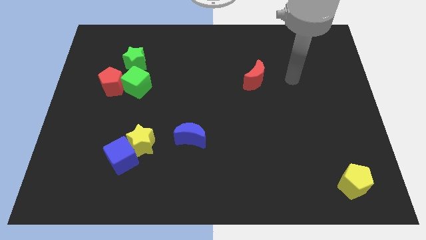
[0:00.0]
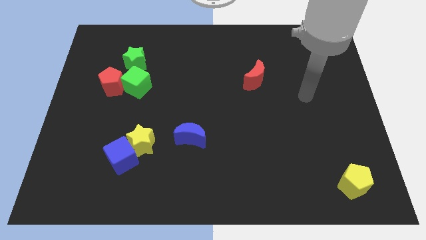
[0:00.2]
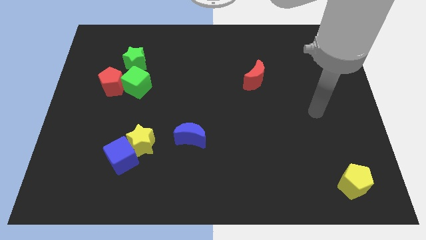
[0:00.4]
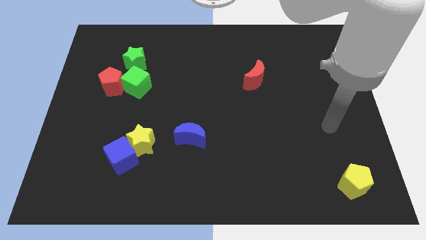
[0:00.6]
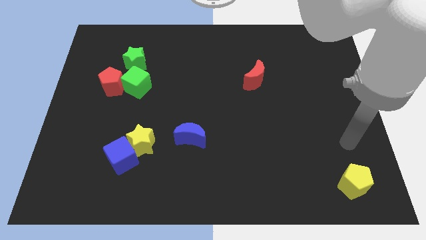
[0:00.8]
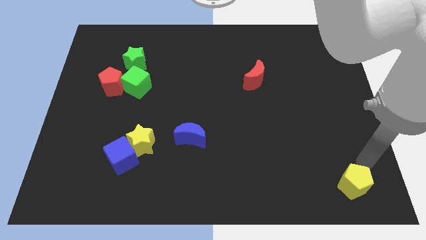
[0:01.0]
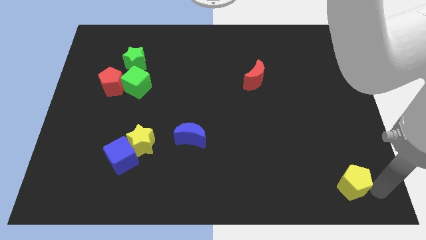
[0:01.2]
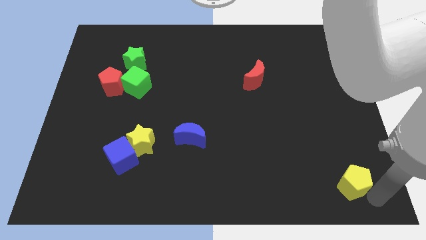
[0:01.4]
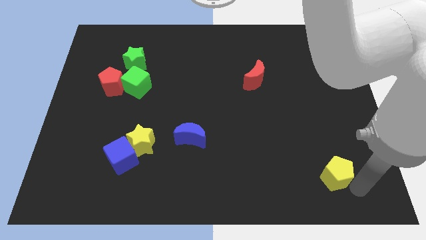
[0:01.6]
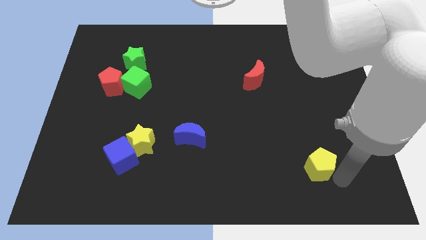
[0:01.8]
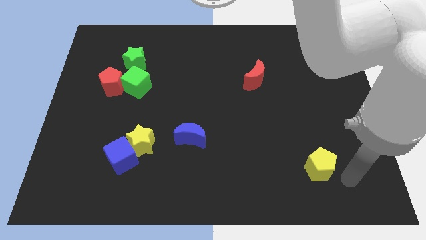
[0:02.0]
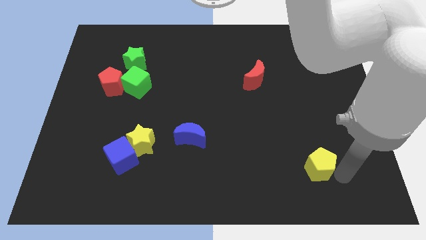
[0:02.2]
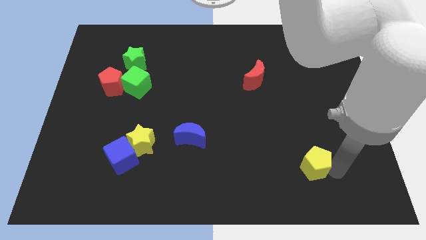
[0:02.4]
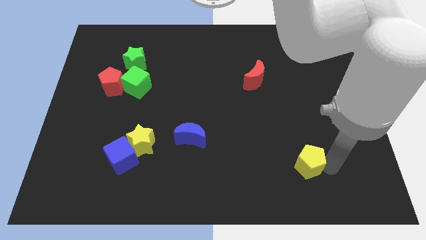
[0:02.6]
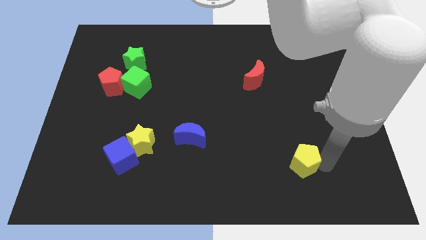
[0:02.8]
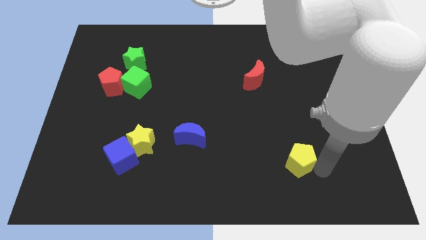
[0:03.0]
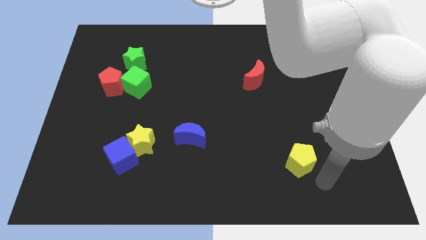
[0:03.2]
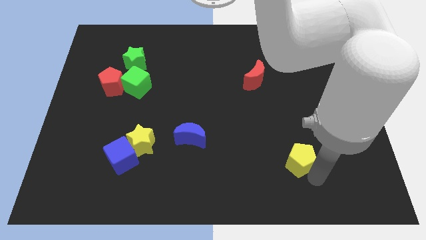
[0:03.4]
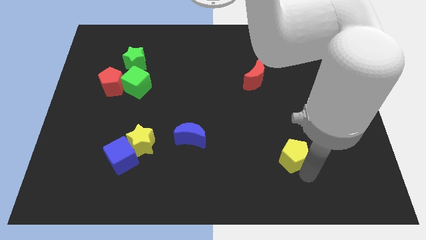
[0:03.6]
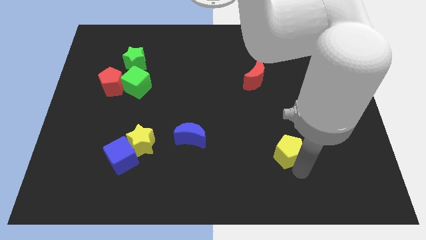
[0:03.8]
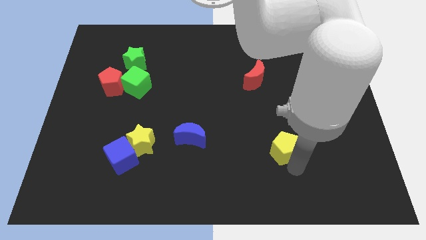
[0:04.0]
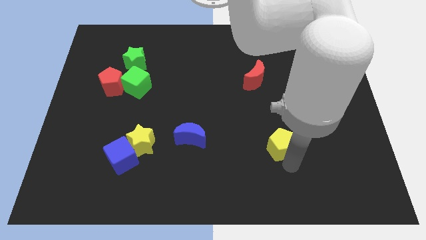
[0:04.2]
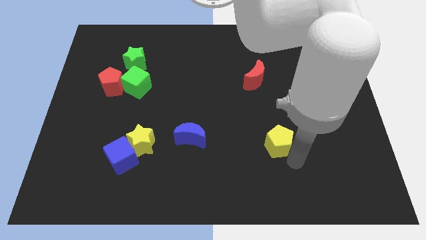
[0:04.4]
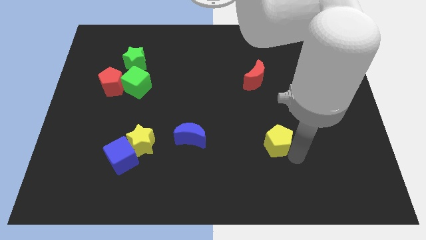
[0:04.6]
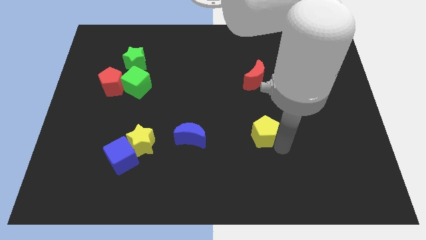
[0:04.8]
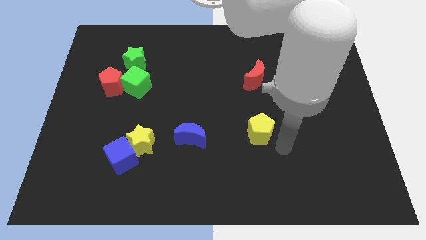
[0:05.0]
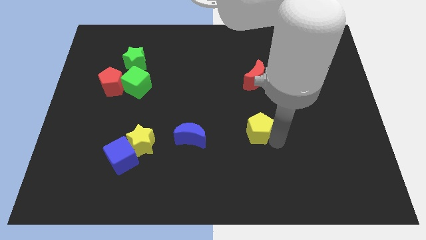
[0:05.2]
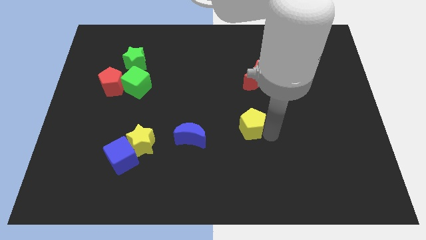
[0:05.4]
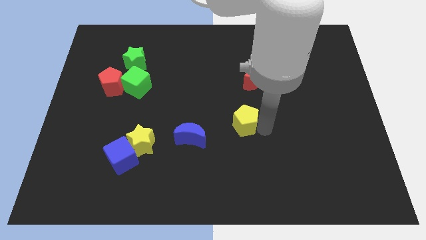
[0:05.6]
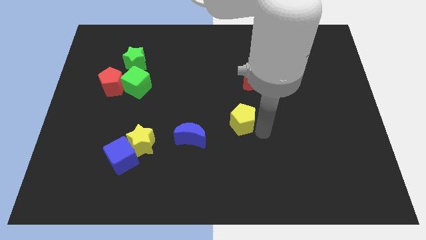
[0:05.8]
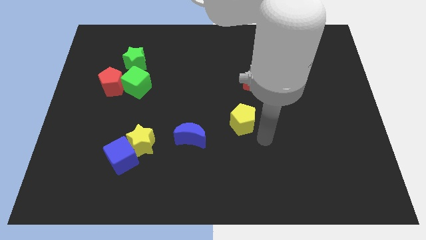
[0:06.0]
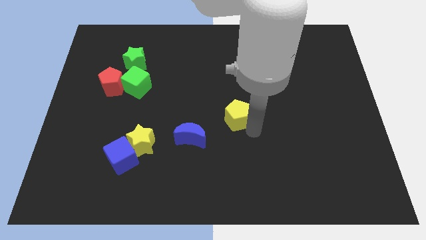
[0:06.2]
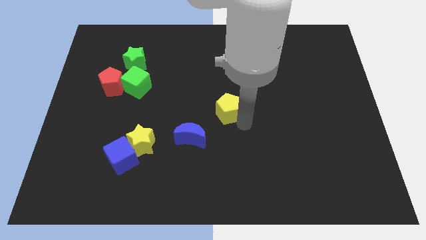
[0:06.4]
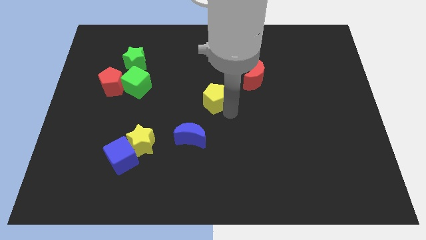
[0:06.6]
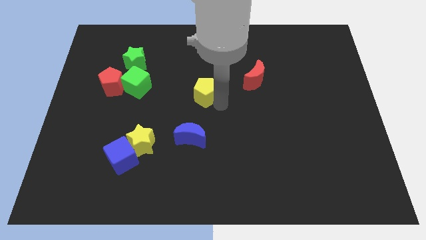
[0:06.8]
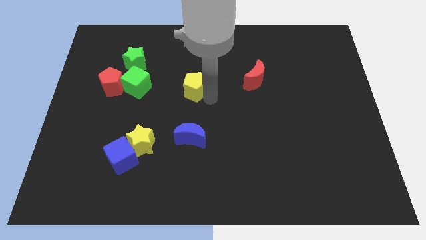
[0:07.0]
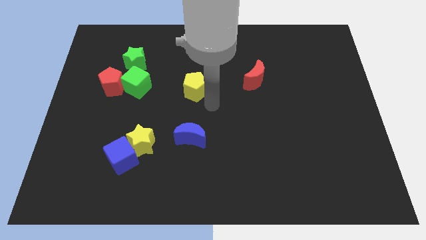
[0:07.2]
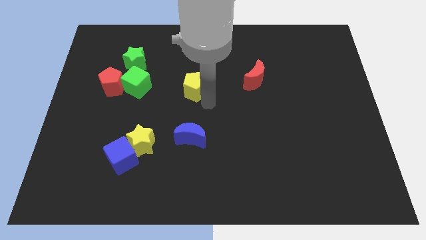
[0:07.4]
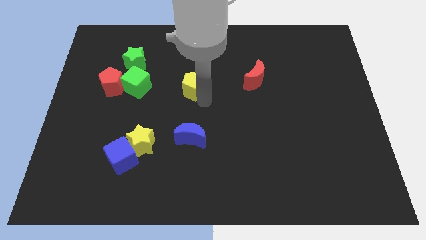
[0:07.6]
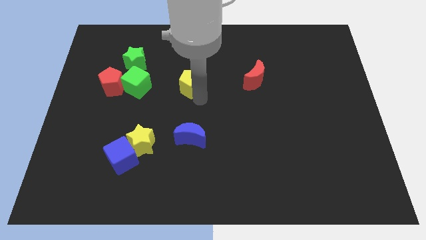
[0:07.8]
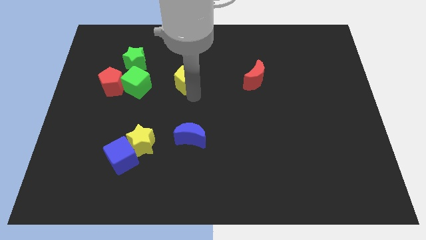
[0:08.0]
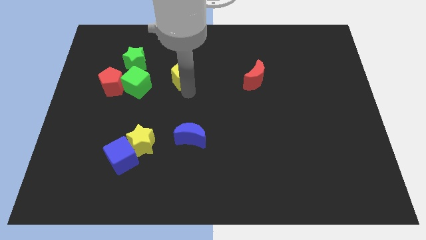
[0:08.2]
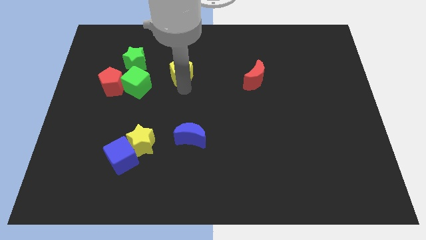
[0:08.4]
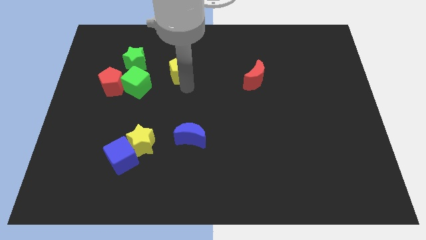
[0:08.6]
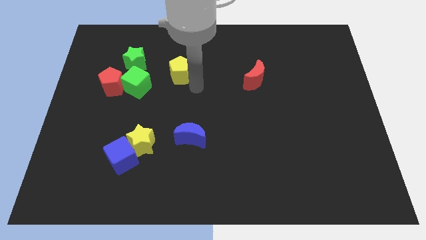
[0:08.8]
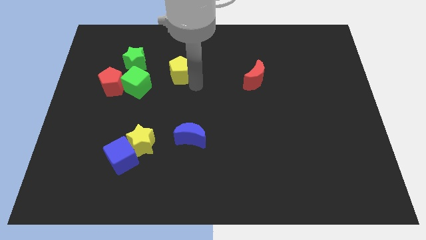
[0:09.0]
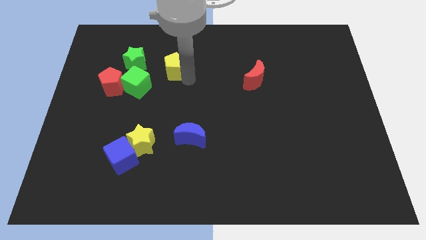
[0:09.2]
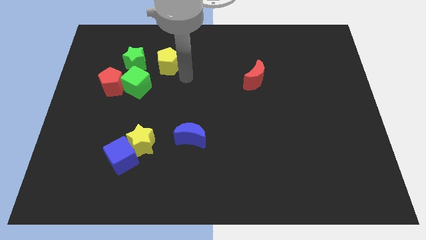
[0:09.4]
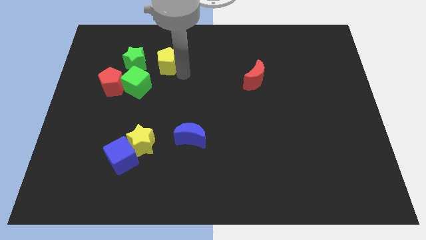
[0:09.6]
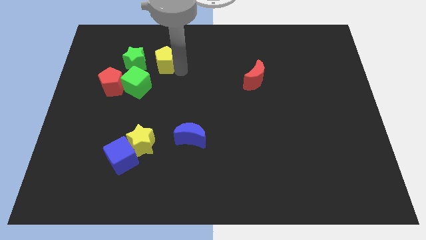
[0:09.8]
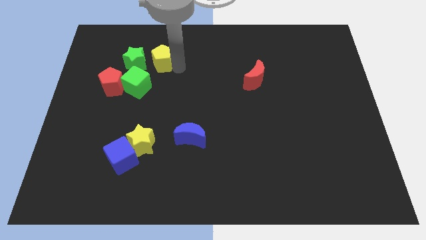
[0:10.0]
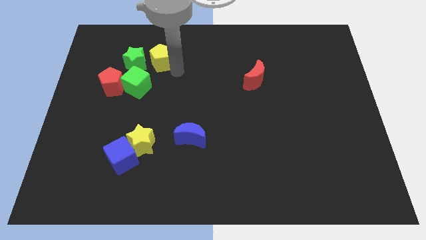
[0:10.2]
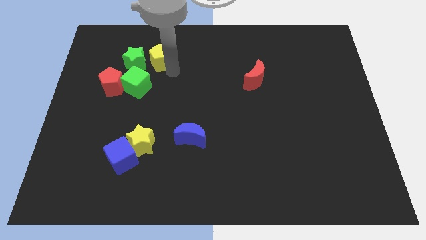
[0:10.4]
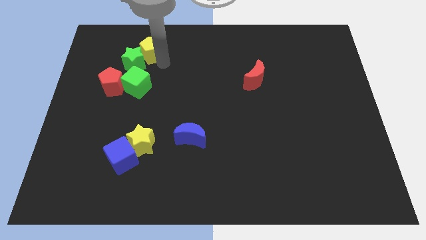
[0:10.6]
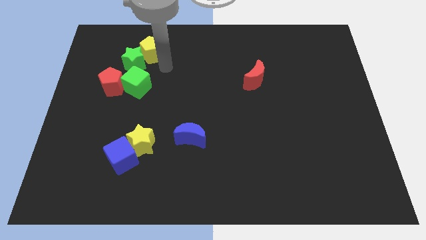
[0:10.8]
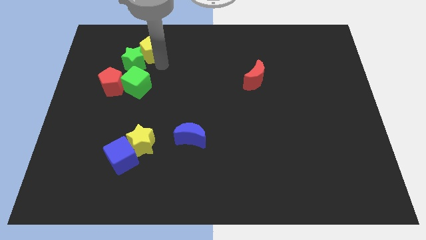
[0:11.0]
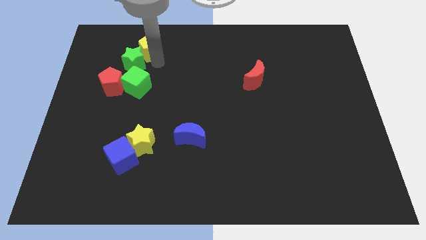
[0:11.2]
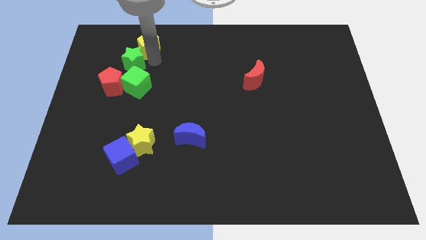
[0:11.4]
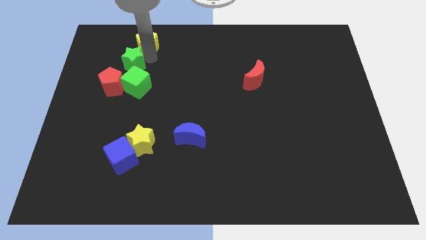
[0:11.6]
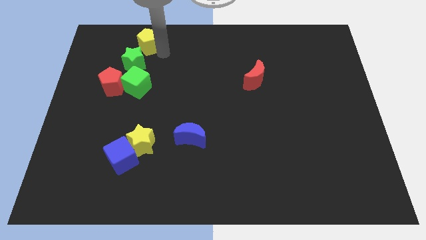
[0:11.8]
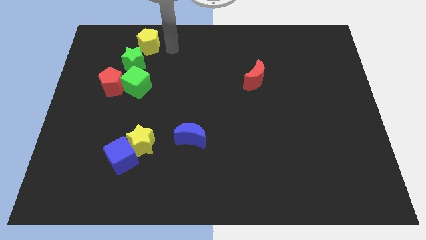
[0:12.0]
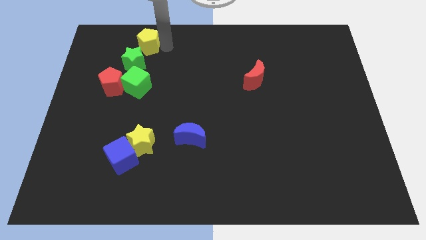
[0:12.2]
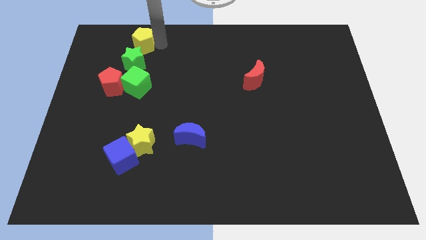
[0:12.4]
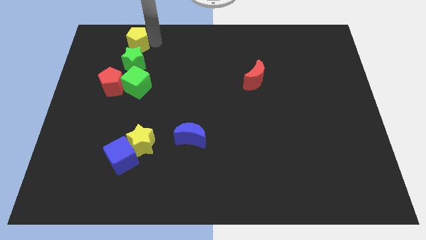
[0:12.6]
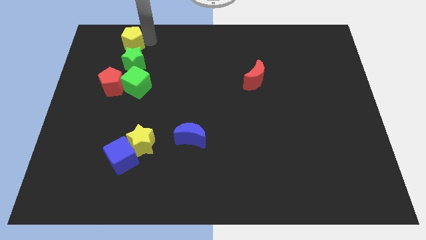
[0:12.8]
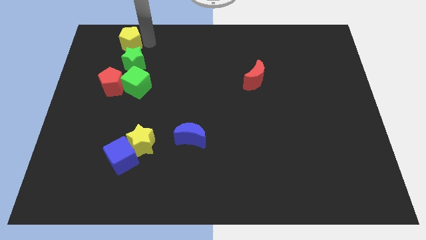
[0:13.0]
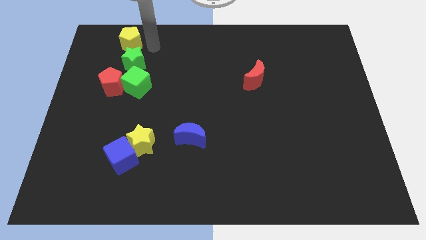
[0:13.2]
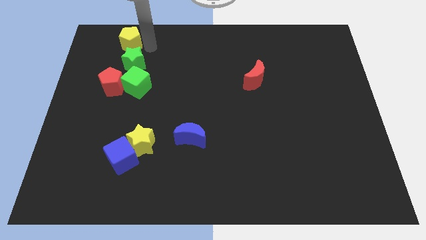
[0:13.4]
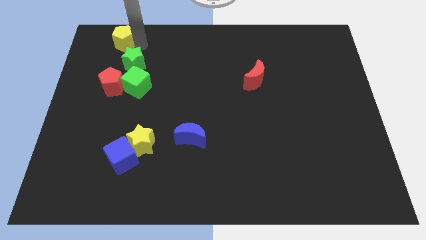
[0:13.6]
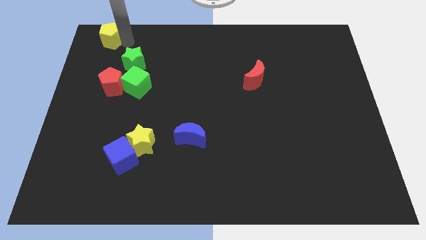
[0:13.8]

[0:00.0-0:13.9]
push the yellow pentagon to the top left
